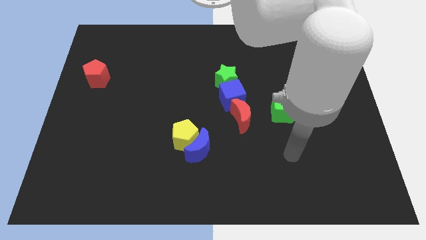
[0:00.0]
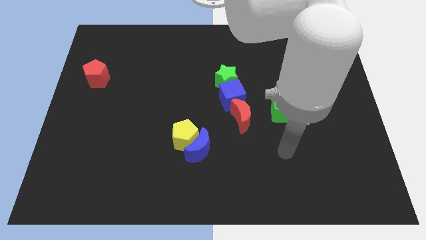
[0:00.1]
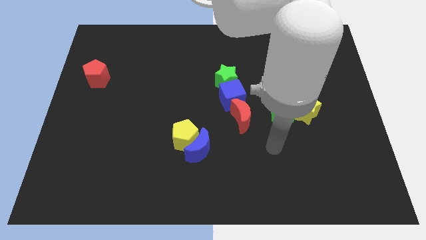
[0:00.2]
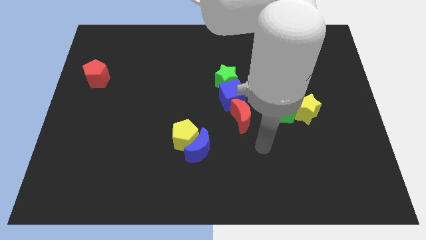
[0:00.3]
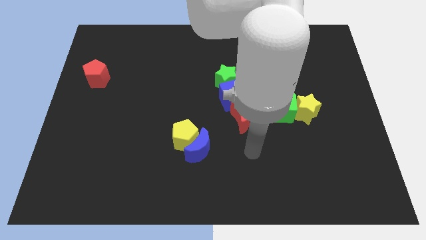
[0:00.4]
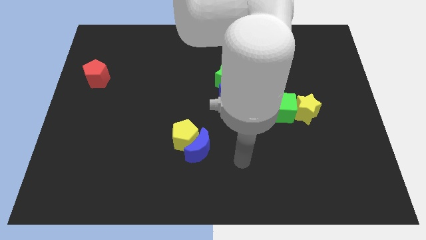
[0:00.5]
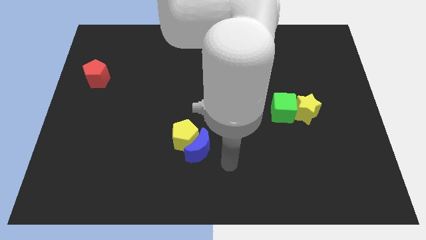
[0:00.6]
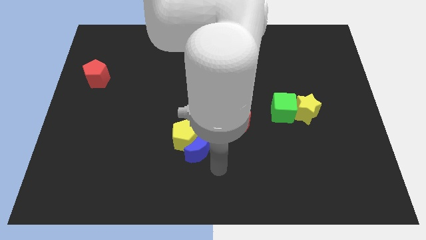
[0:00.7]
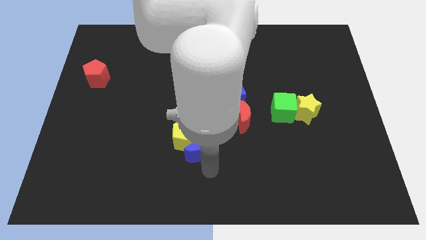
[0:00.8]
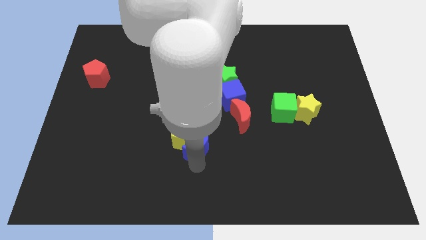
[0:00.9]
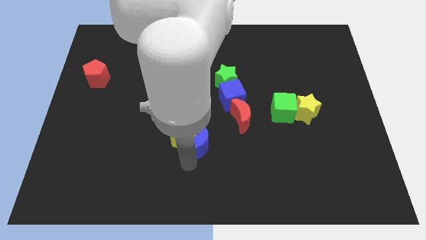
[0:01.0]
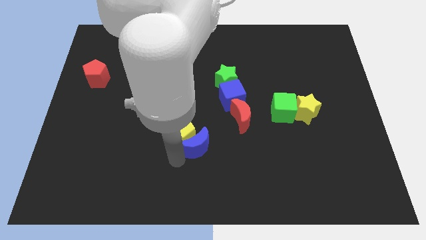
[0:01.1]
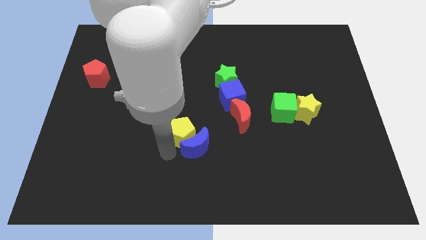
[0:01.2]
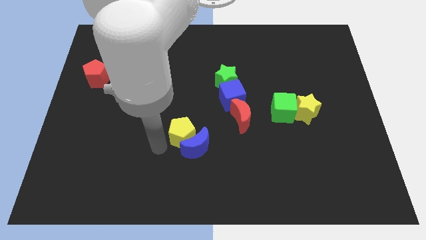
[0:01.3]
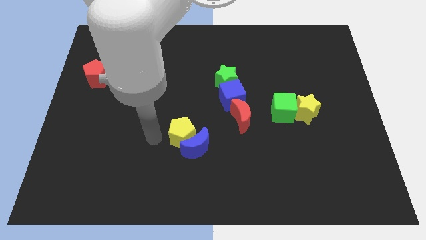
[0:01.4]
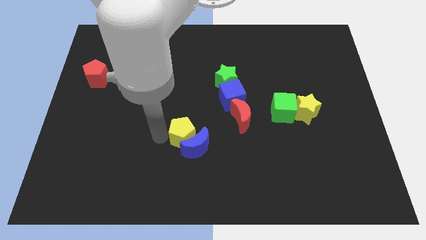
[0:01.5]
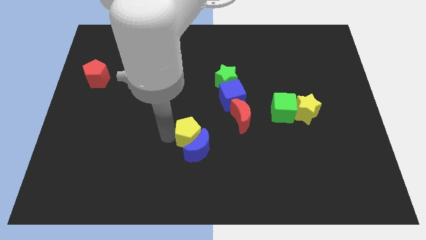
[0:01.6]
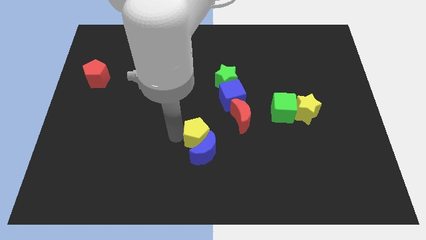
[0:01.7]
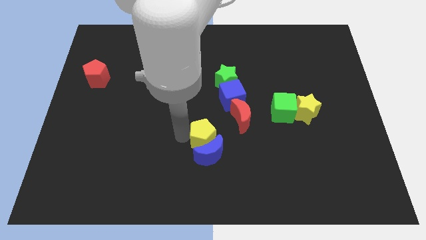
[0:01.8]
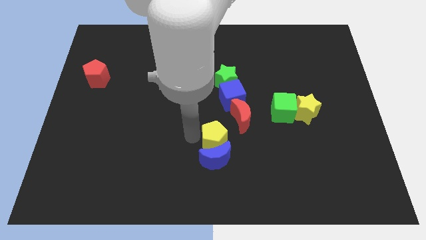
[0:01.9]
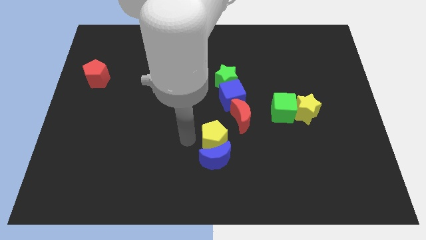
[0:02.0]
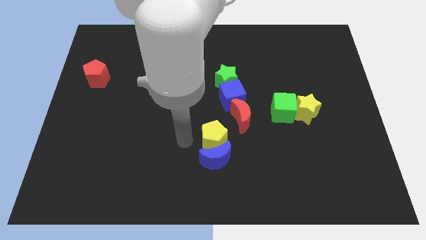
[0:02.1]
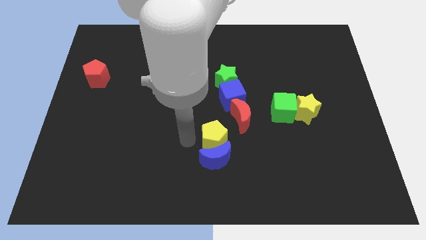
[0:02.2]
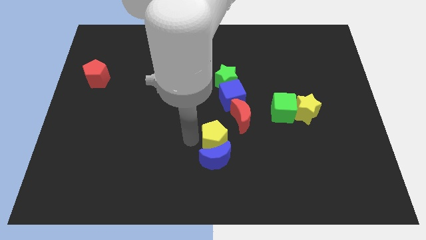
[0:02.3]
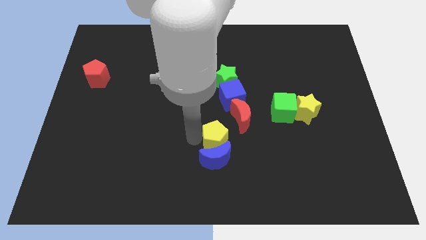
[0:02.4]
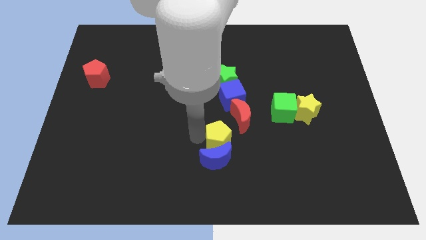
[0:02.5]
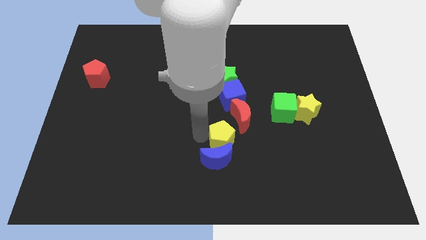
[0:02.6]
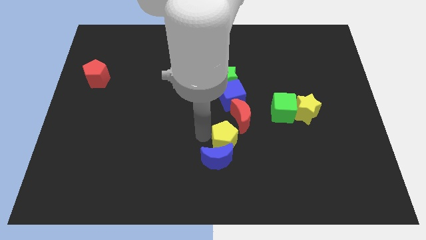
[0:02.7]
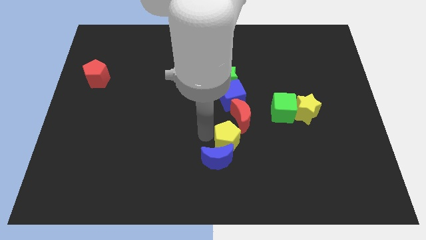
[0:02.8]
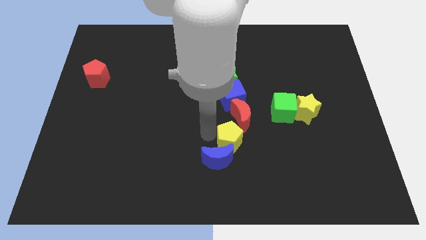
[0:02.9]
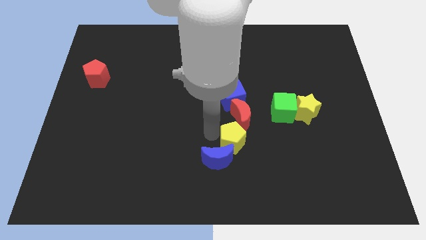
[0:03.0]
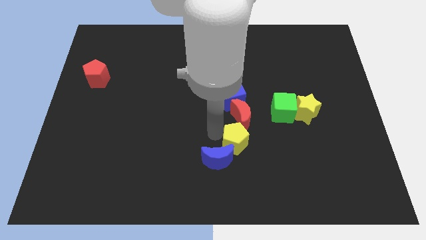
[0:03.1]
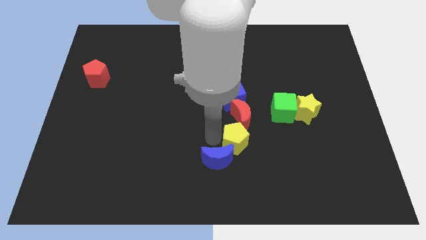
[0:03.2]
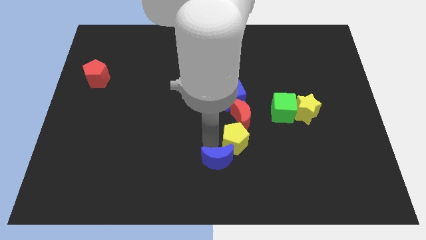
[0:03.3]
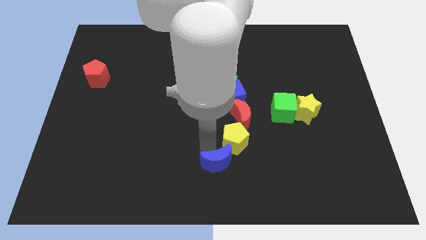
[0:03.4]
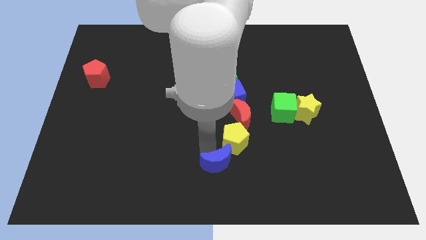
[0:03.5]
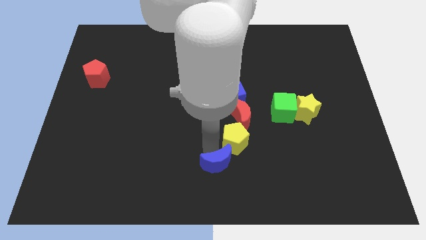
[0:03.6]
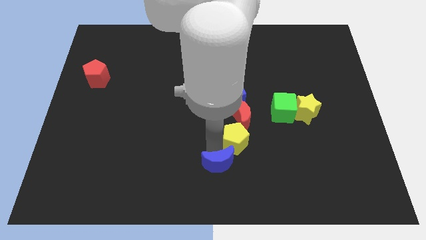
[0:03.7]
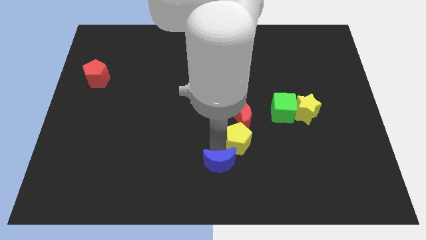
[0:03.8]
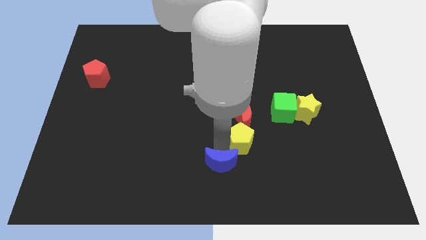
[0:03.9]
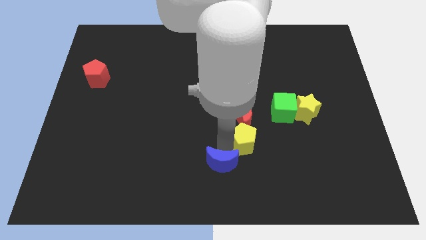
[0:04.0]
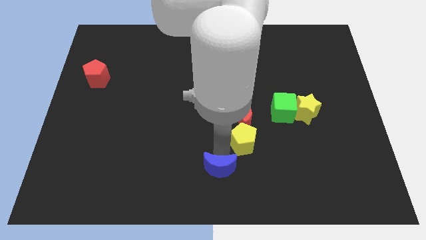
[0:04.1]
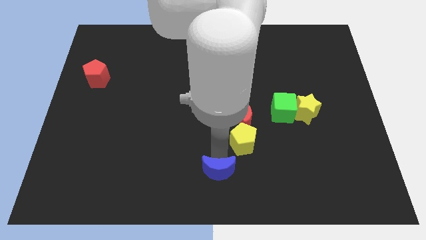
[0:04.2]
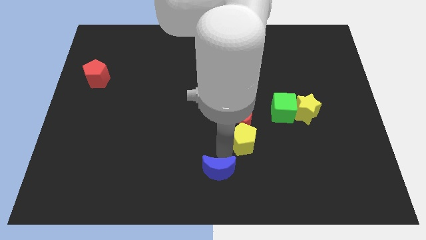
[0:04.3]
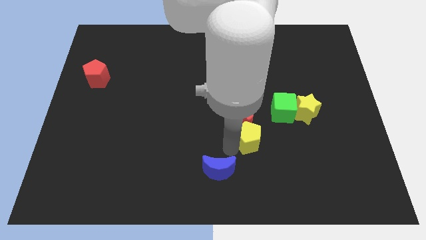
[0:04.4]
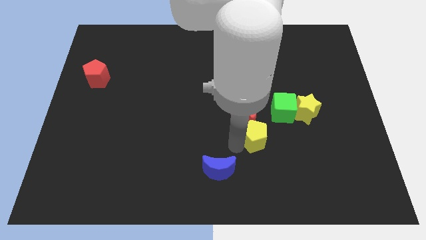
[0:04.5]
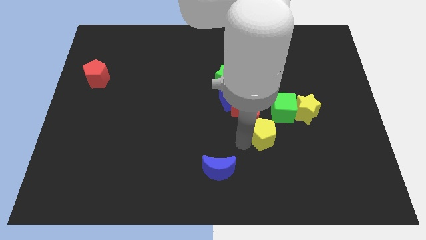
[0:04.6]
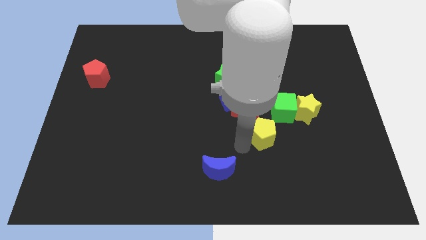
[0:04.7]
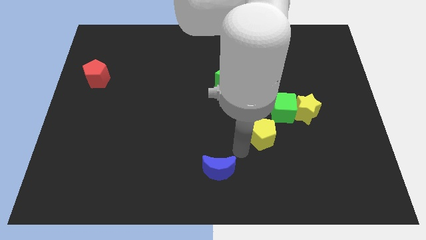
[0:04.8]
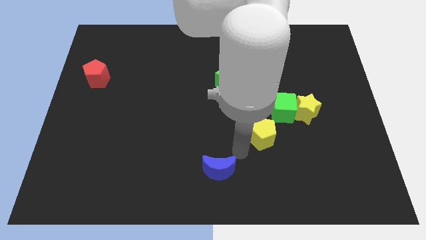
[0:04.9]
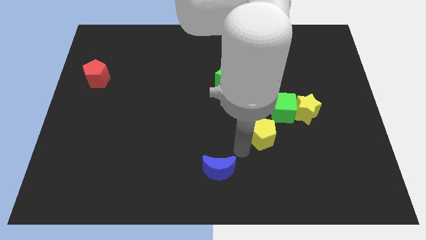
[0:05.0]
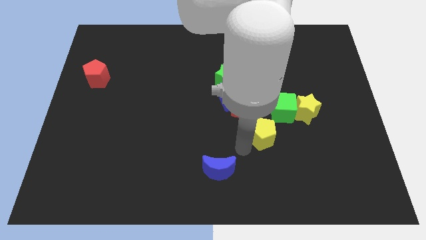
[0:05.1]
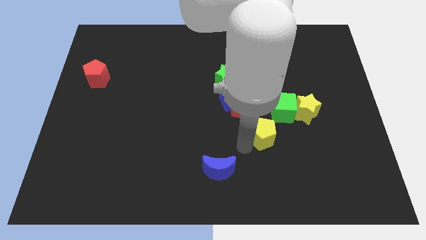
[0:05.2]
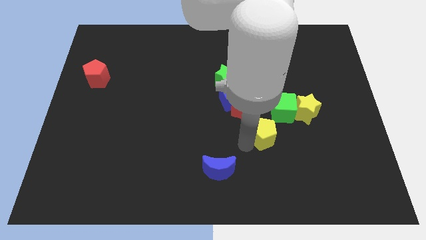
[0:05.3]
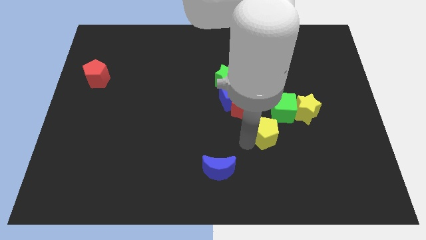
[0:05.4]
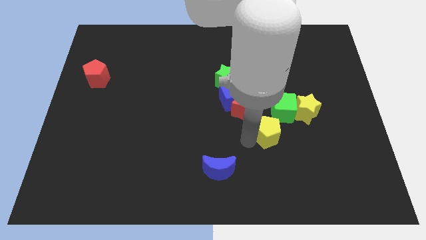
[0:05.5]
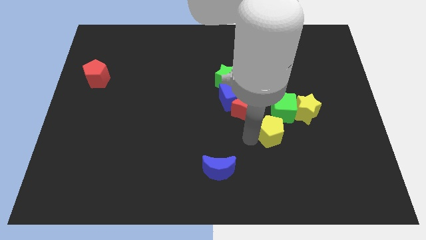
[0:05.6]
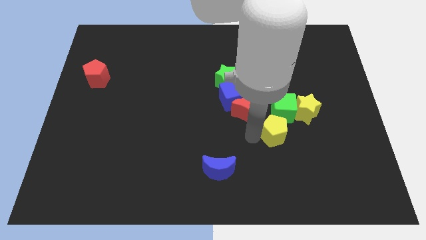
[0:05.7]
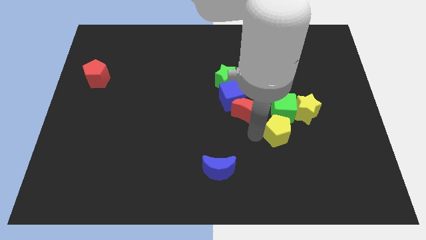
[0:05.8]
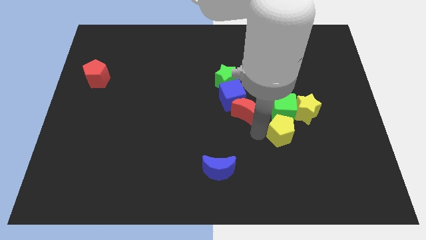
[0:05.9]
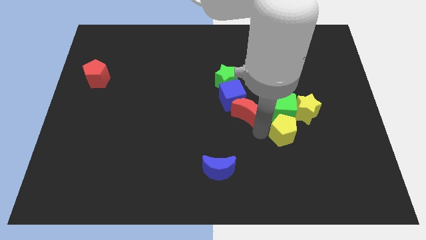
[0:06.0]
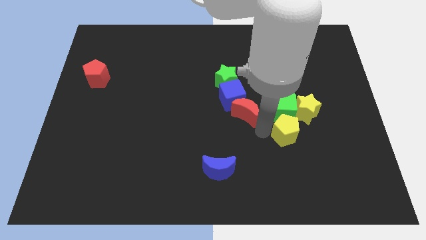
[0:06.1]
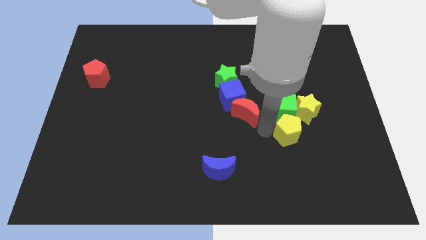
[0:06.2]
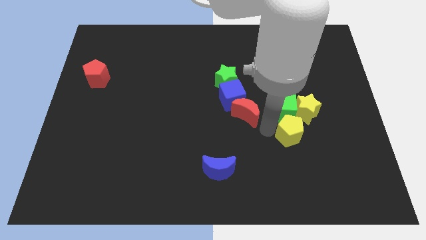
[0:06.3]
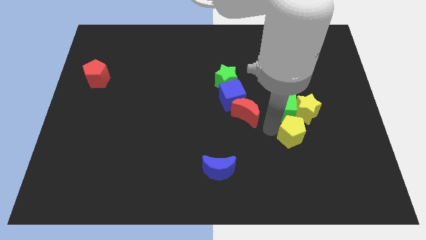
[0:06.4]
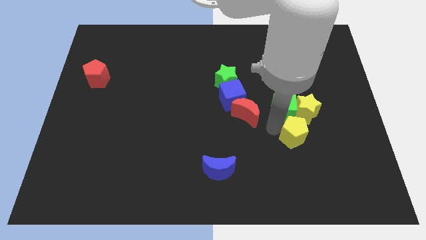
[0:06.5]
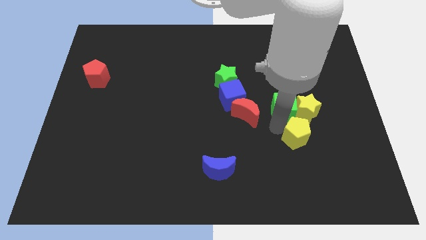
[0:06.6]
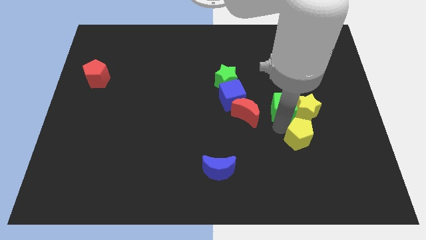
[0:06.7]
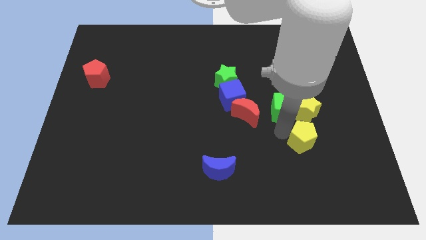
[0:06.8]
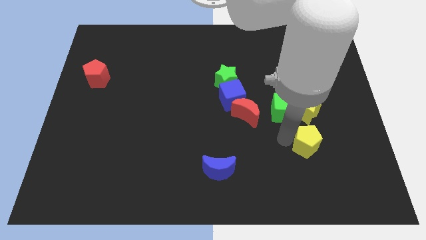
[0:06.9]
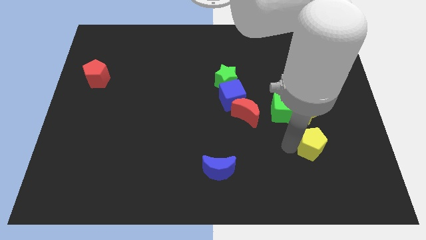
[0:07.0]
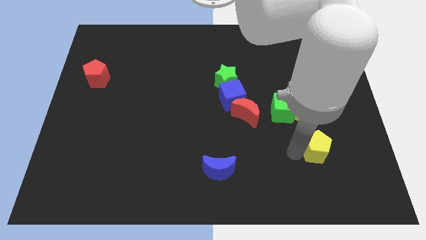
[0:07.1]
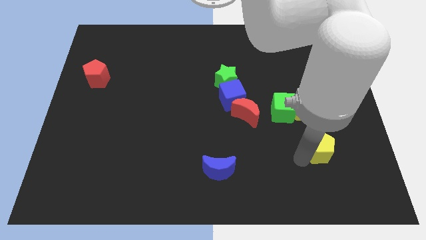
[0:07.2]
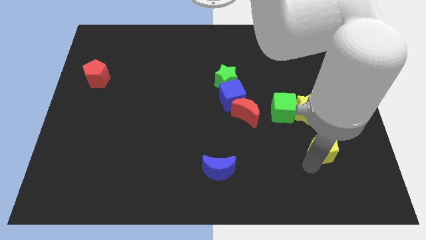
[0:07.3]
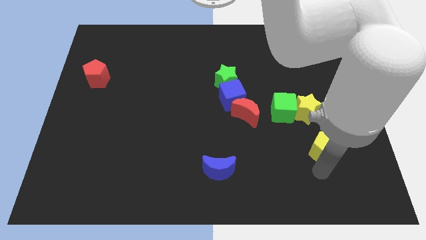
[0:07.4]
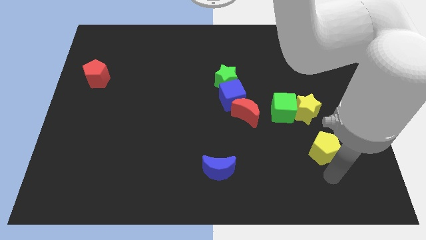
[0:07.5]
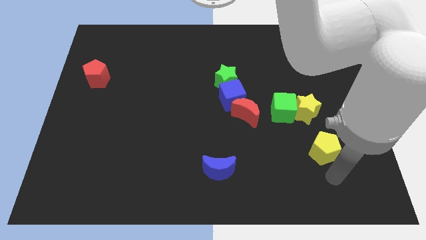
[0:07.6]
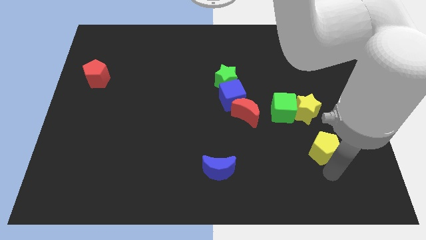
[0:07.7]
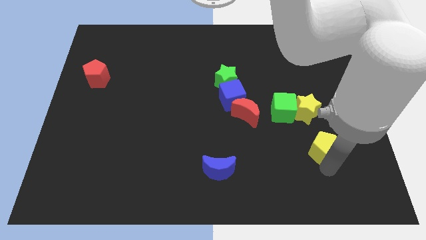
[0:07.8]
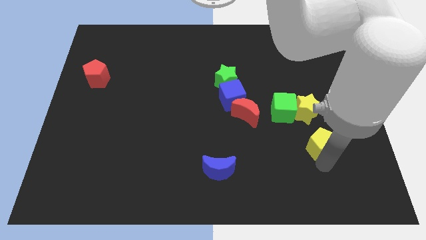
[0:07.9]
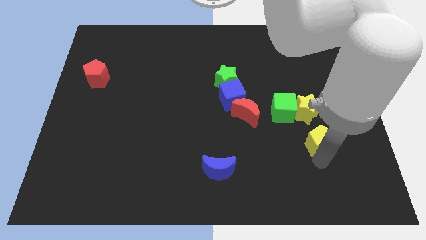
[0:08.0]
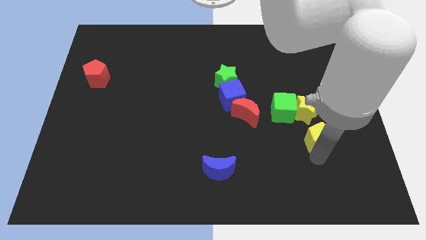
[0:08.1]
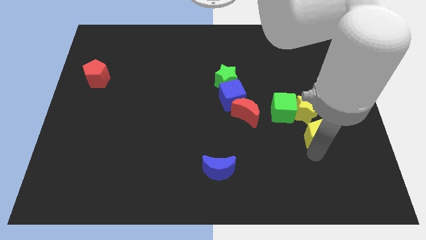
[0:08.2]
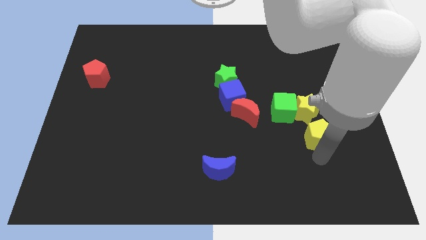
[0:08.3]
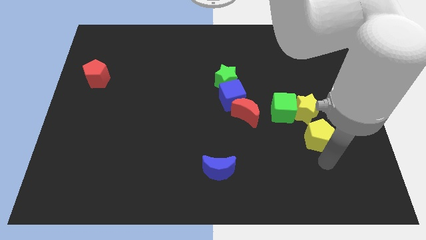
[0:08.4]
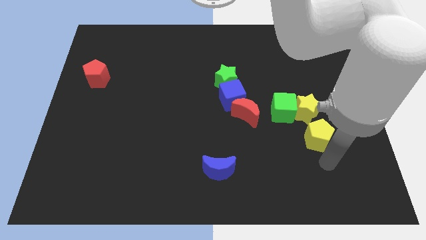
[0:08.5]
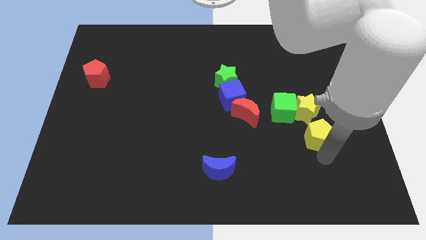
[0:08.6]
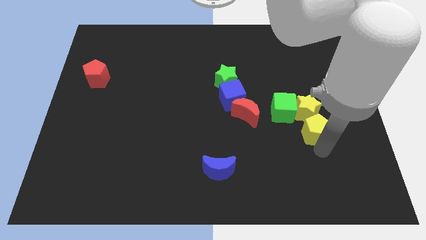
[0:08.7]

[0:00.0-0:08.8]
slide the yellow pentagon to the yellow star
